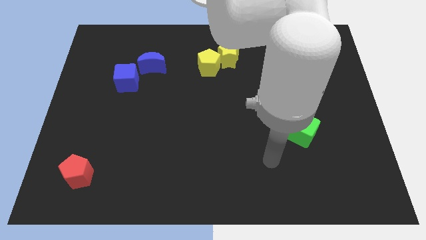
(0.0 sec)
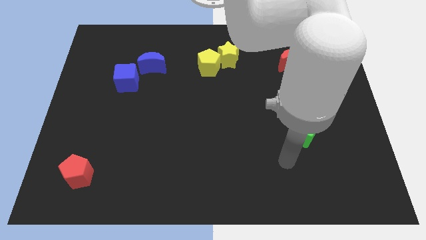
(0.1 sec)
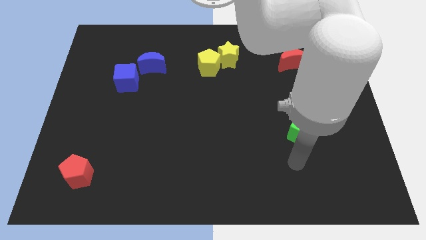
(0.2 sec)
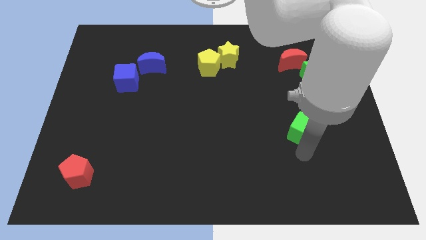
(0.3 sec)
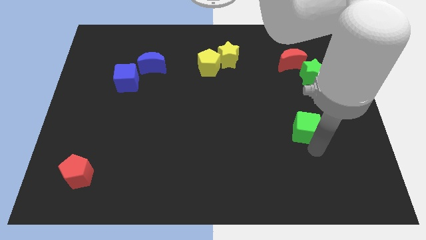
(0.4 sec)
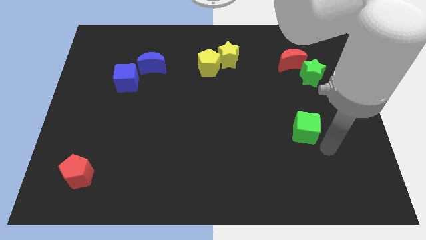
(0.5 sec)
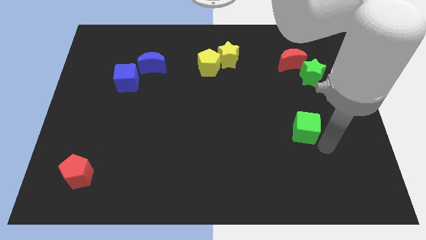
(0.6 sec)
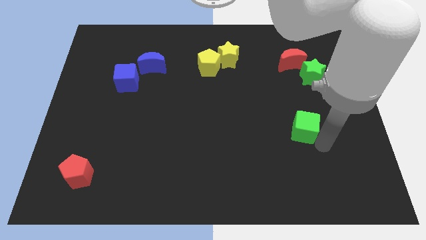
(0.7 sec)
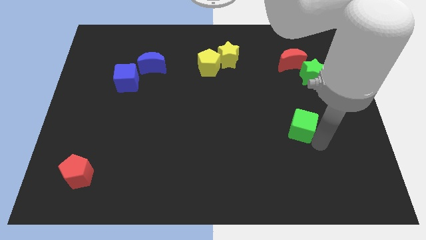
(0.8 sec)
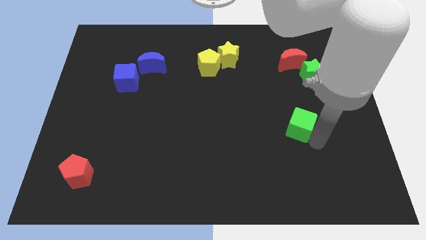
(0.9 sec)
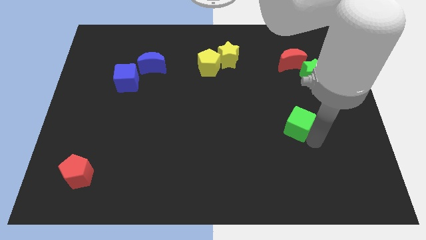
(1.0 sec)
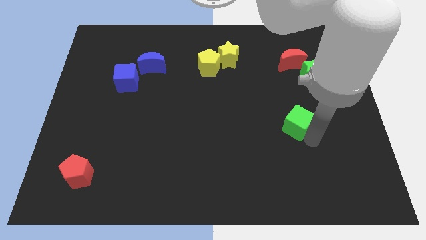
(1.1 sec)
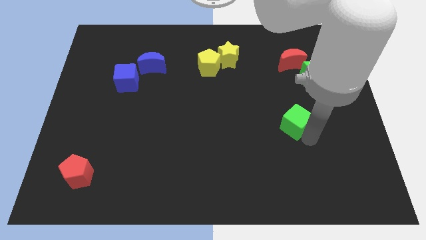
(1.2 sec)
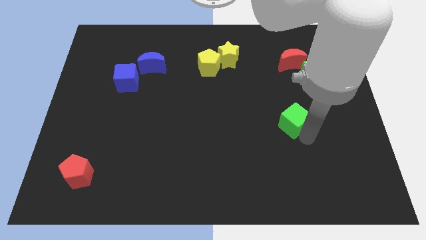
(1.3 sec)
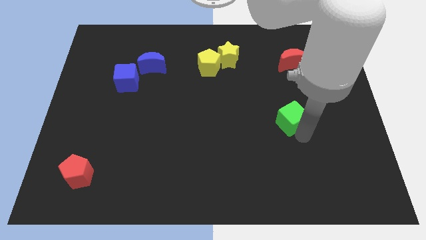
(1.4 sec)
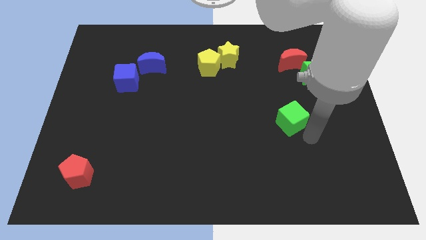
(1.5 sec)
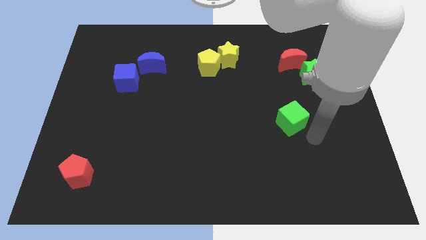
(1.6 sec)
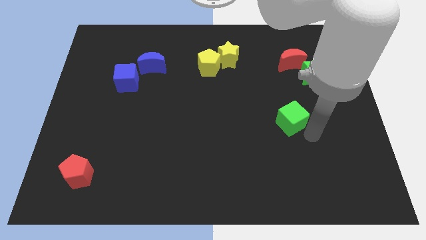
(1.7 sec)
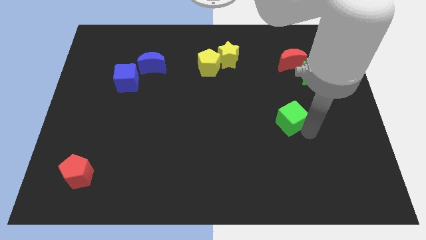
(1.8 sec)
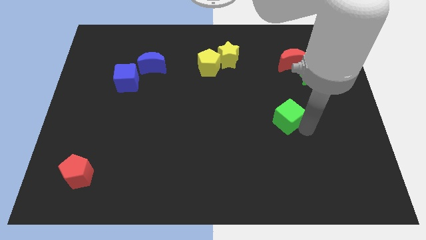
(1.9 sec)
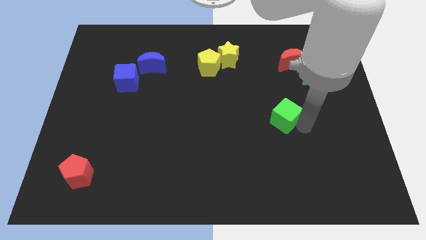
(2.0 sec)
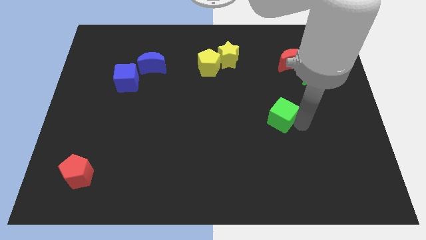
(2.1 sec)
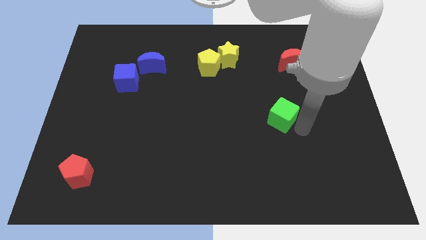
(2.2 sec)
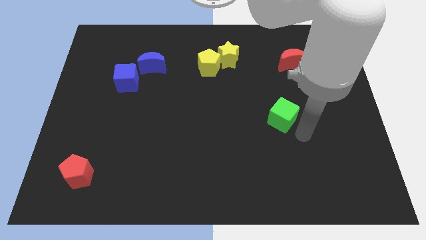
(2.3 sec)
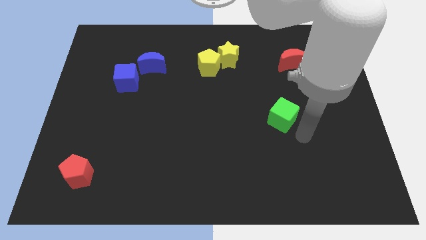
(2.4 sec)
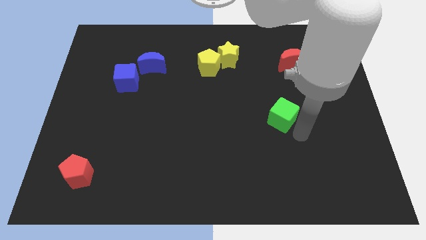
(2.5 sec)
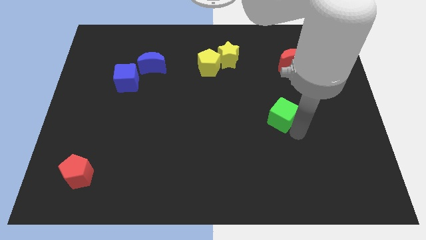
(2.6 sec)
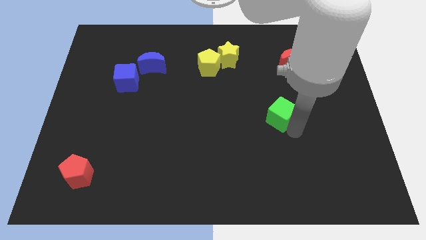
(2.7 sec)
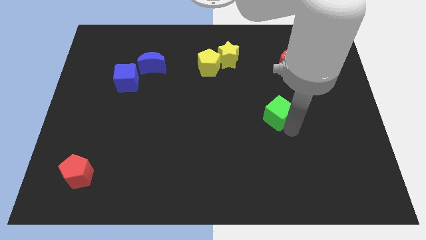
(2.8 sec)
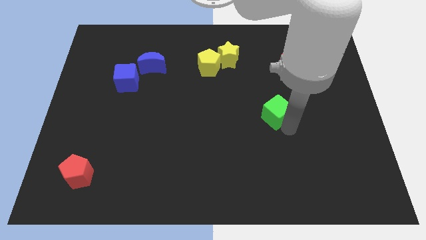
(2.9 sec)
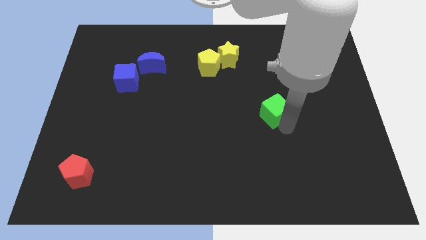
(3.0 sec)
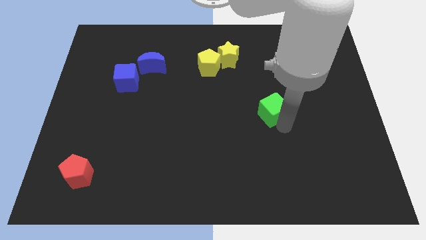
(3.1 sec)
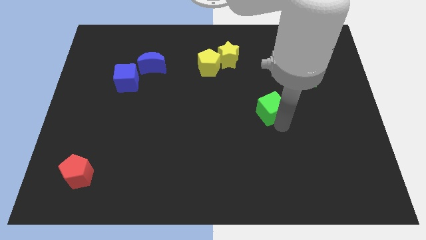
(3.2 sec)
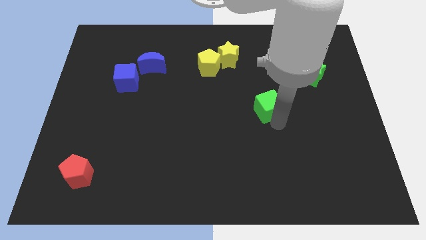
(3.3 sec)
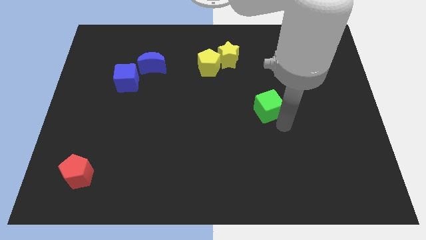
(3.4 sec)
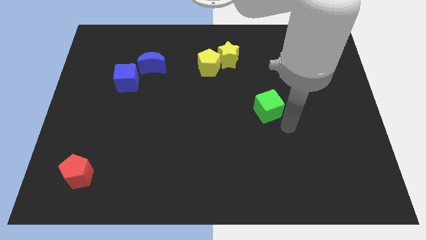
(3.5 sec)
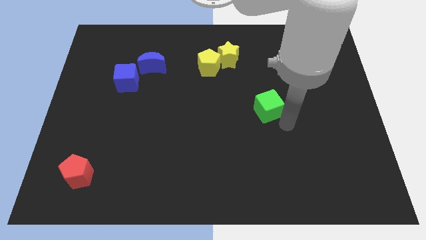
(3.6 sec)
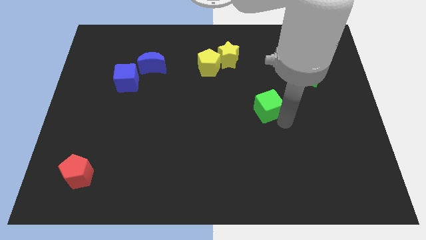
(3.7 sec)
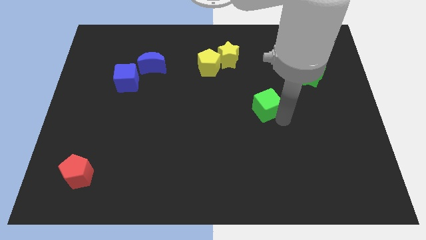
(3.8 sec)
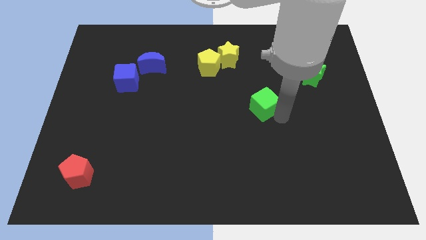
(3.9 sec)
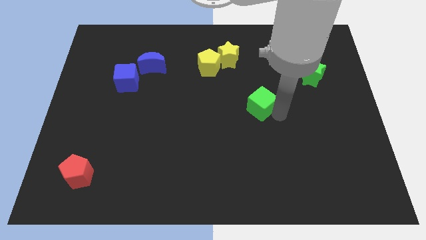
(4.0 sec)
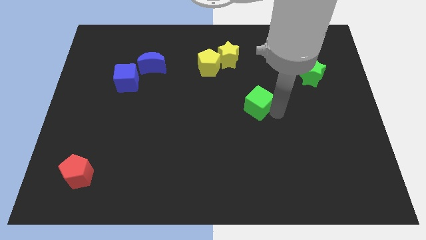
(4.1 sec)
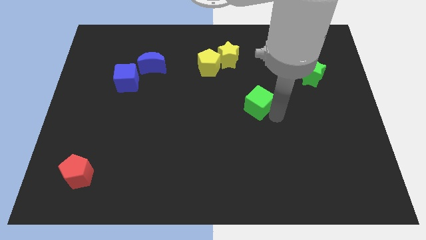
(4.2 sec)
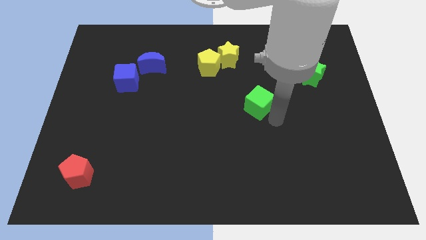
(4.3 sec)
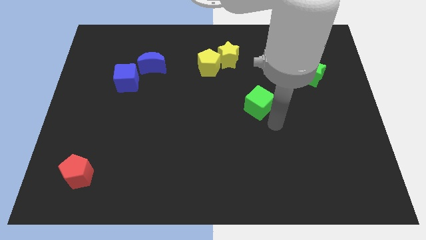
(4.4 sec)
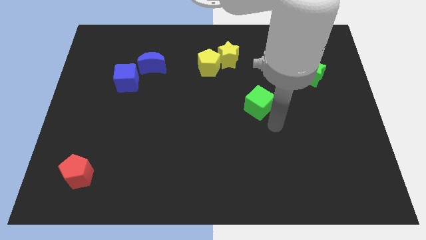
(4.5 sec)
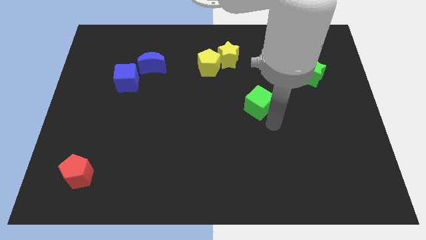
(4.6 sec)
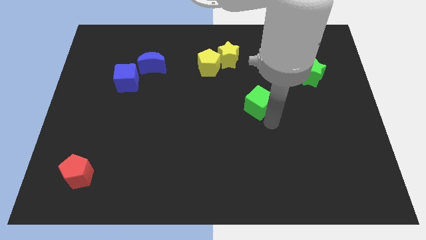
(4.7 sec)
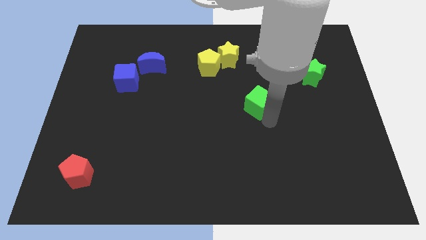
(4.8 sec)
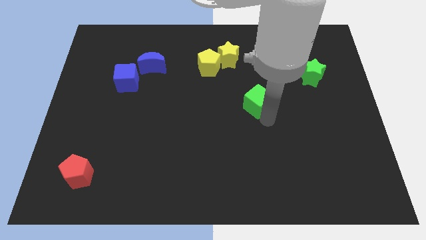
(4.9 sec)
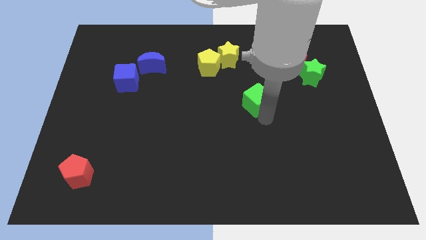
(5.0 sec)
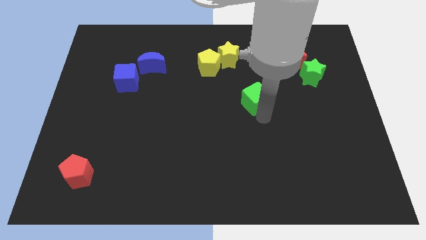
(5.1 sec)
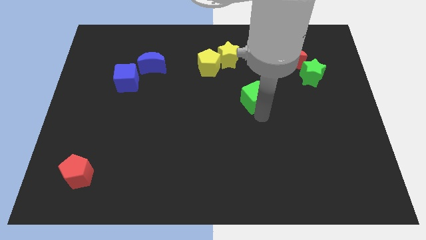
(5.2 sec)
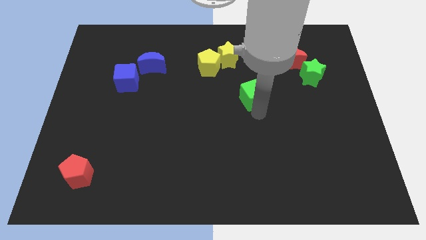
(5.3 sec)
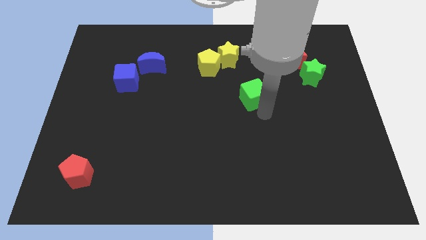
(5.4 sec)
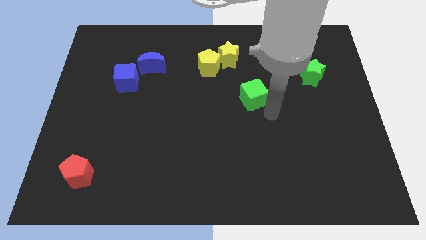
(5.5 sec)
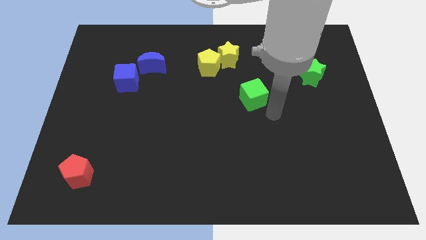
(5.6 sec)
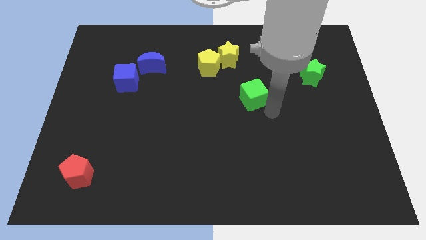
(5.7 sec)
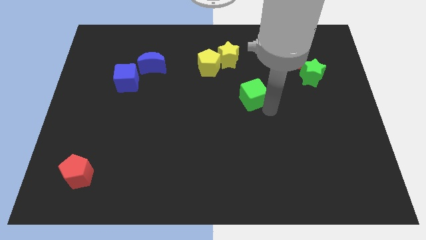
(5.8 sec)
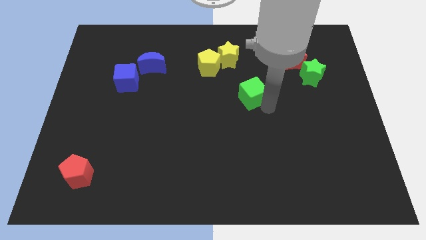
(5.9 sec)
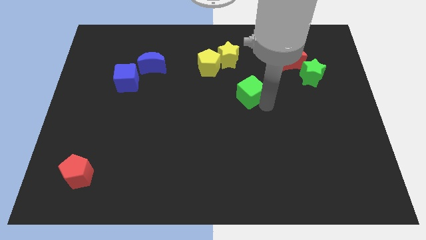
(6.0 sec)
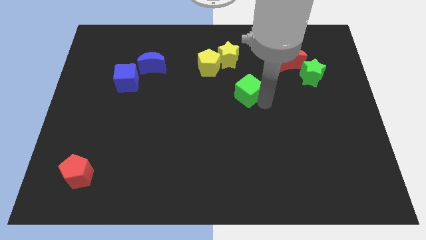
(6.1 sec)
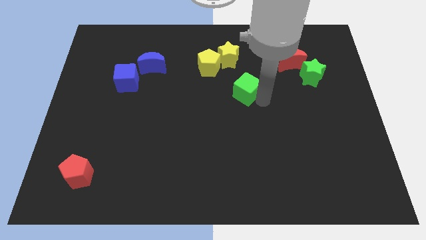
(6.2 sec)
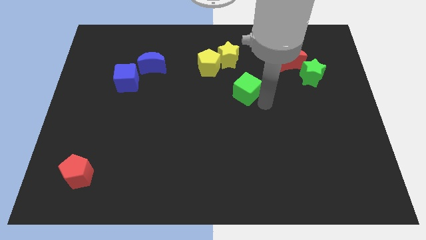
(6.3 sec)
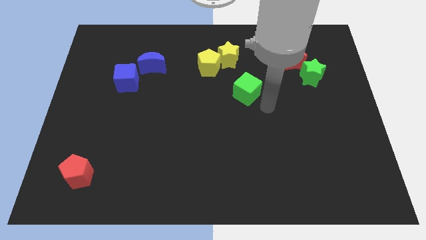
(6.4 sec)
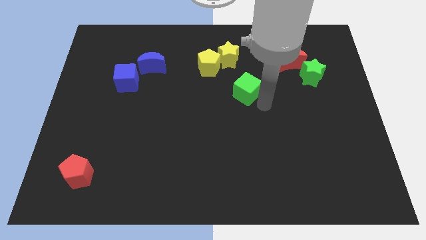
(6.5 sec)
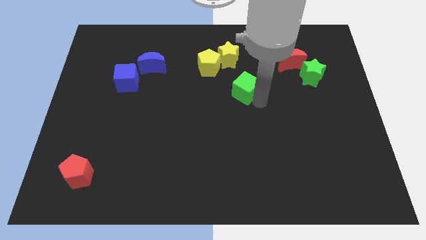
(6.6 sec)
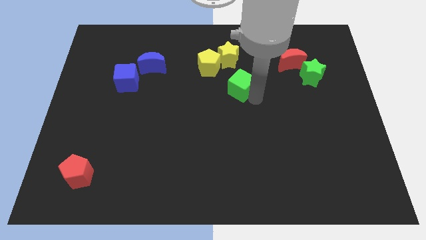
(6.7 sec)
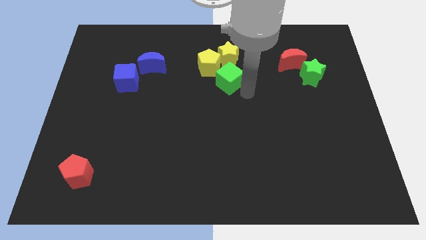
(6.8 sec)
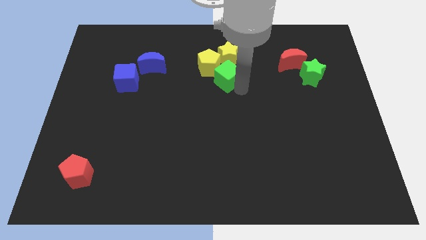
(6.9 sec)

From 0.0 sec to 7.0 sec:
push the green cube to the yellow pentagon

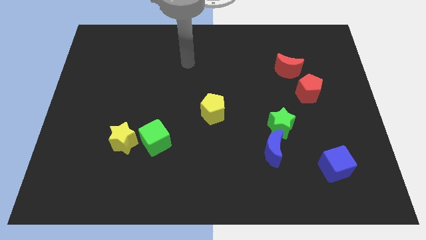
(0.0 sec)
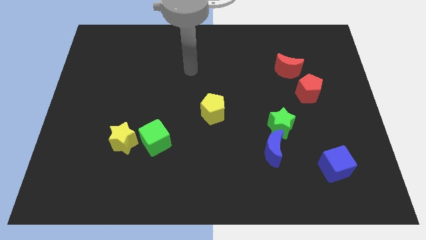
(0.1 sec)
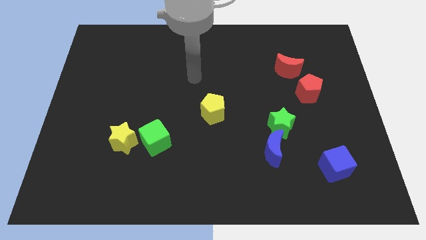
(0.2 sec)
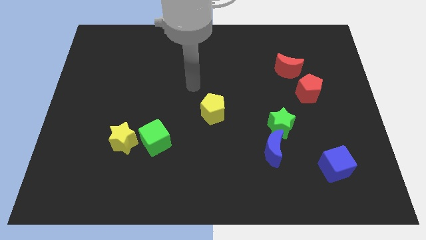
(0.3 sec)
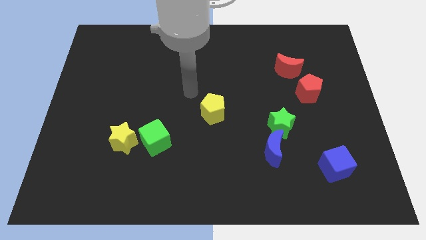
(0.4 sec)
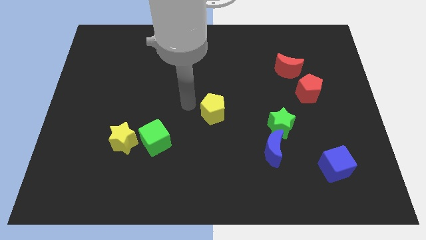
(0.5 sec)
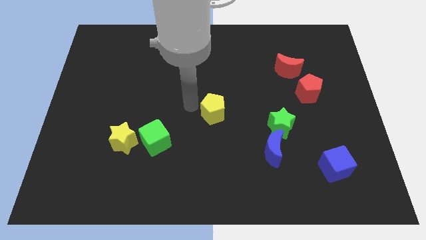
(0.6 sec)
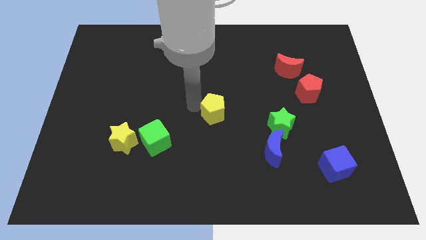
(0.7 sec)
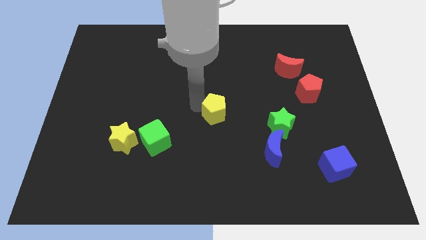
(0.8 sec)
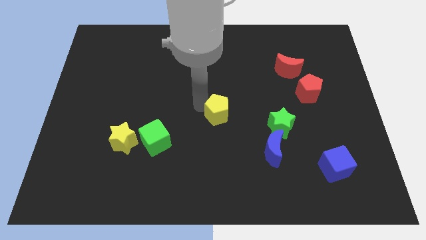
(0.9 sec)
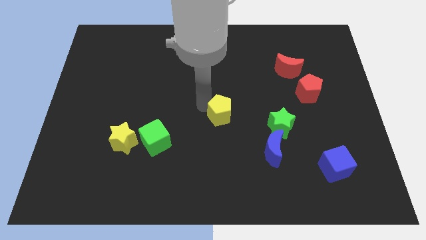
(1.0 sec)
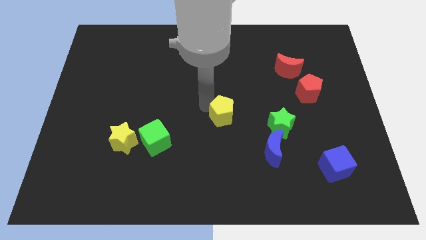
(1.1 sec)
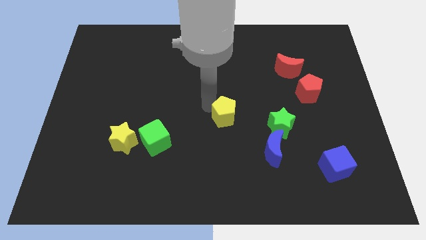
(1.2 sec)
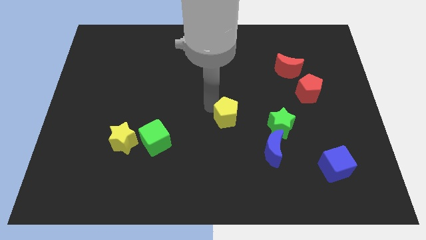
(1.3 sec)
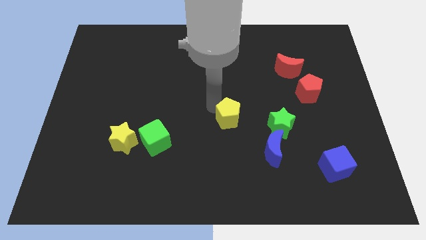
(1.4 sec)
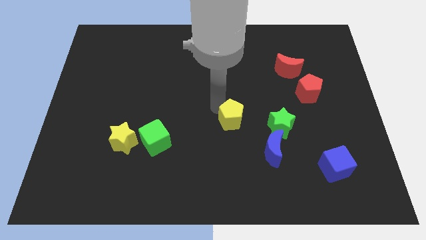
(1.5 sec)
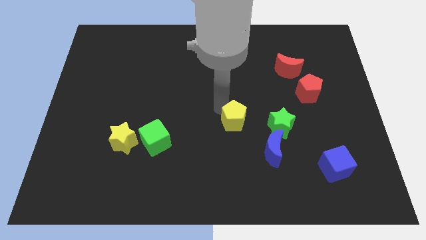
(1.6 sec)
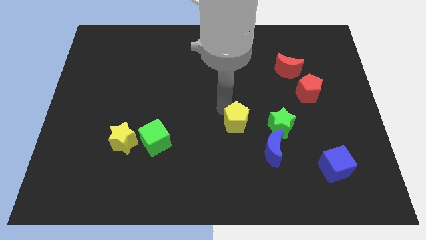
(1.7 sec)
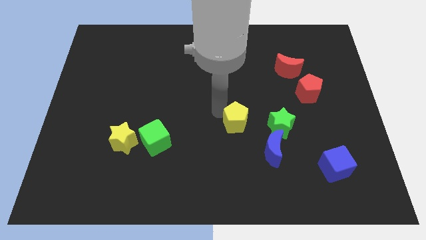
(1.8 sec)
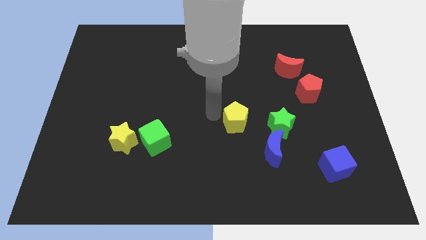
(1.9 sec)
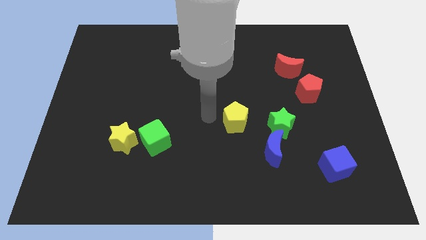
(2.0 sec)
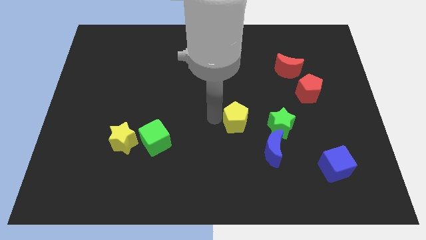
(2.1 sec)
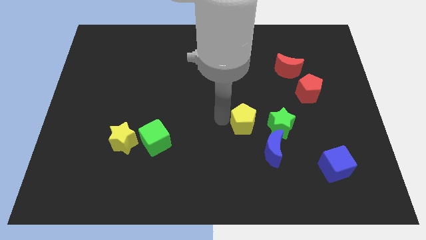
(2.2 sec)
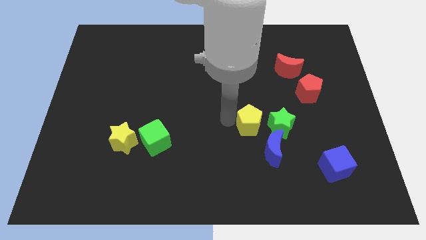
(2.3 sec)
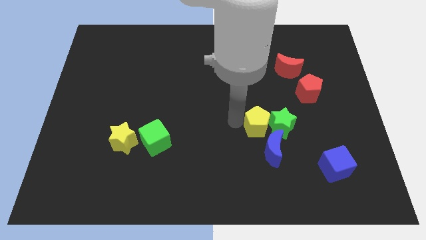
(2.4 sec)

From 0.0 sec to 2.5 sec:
put the yellow pentagon towards the green star
